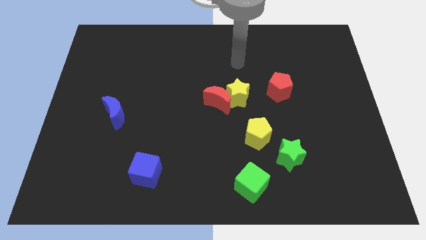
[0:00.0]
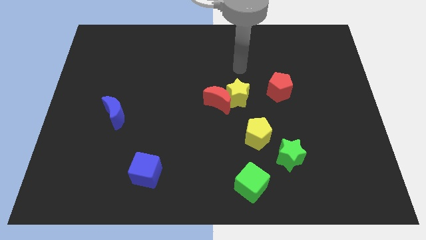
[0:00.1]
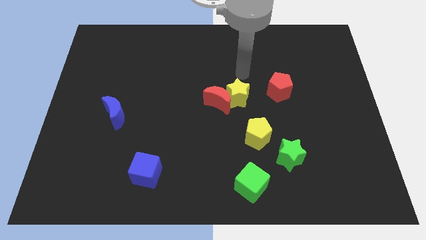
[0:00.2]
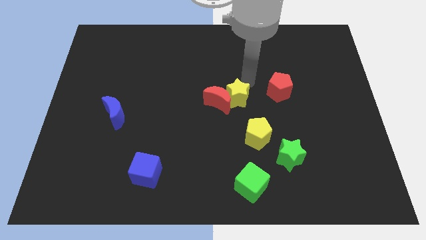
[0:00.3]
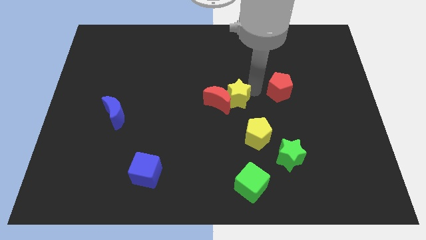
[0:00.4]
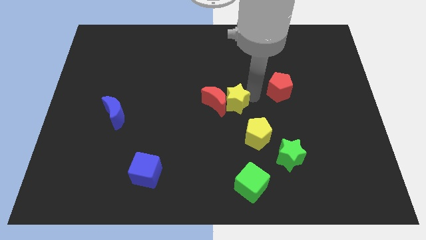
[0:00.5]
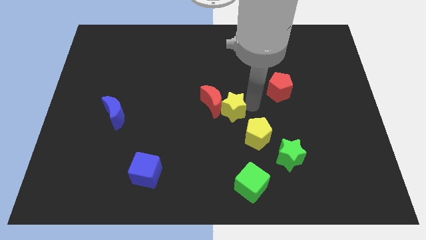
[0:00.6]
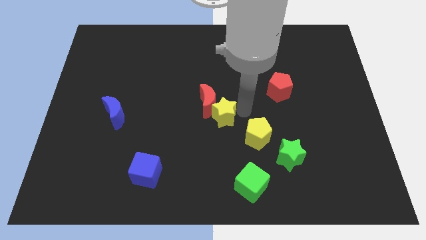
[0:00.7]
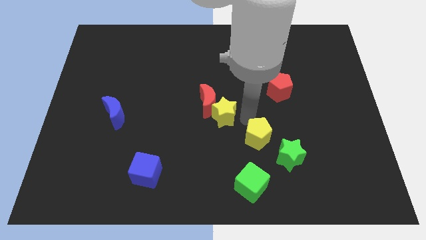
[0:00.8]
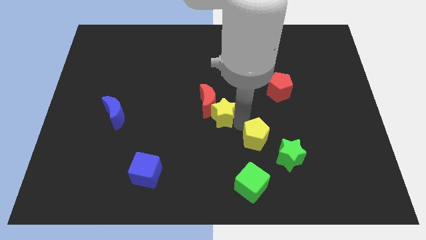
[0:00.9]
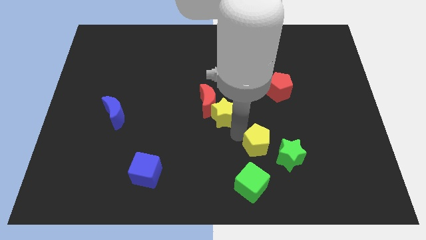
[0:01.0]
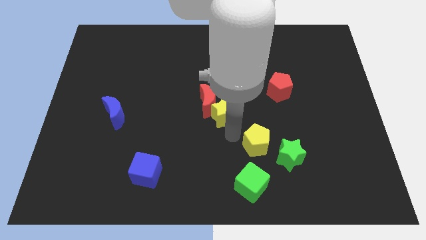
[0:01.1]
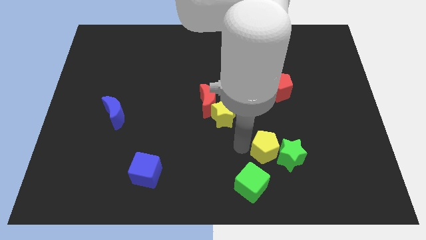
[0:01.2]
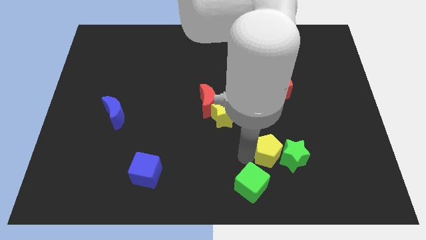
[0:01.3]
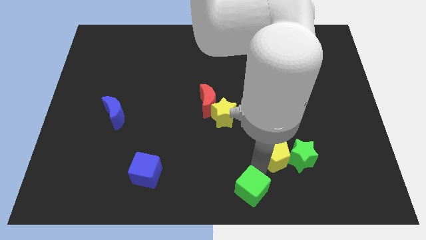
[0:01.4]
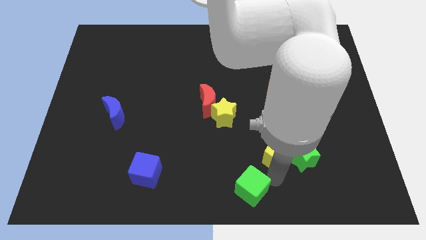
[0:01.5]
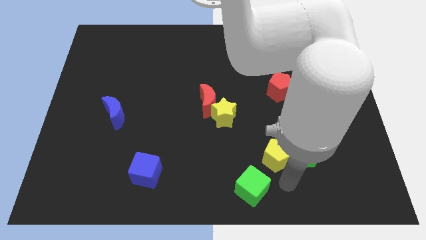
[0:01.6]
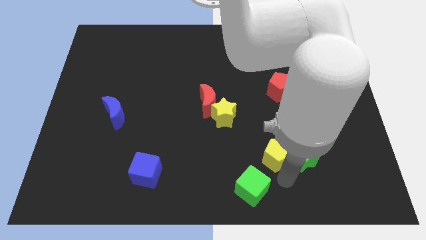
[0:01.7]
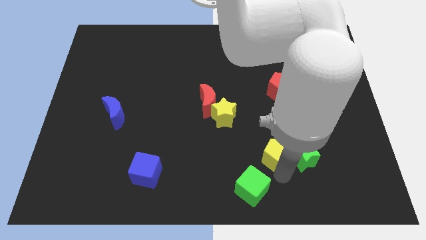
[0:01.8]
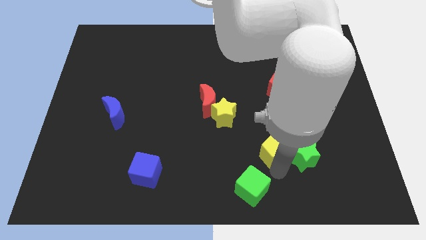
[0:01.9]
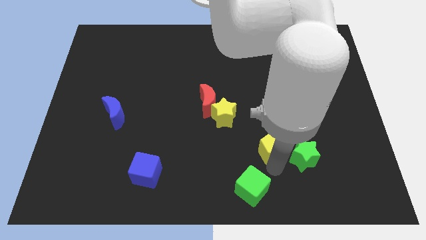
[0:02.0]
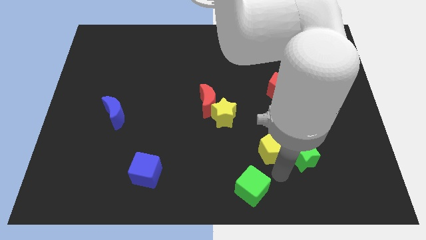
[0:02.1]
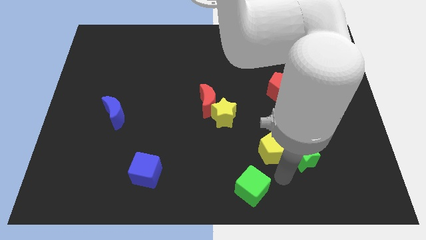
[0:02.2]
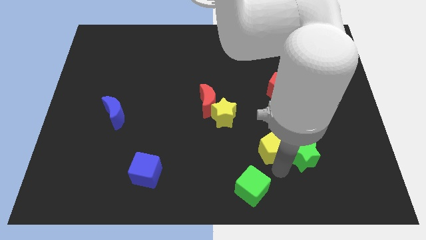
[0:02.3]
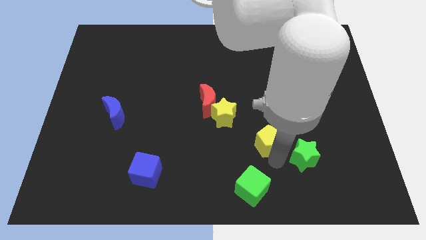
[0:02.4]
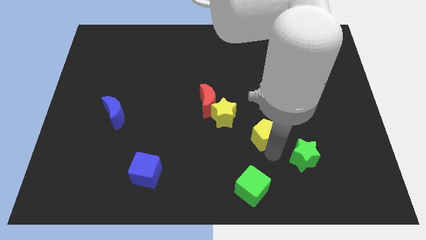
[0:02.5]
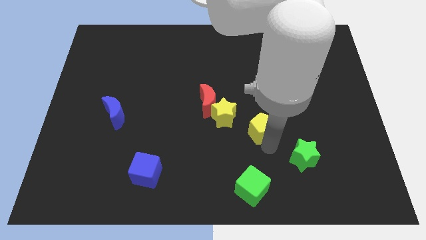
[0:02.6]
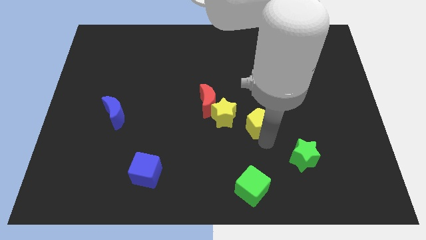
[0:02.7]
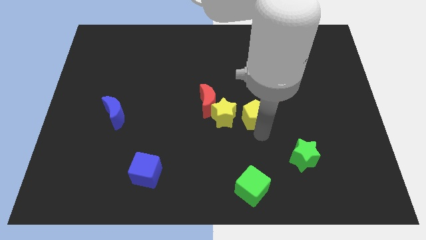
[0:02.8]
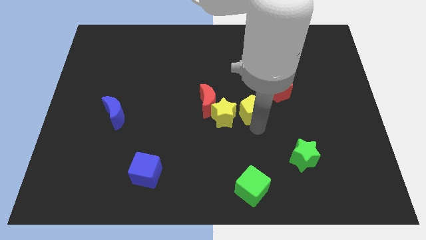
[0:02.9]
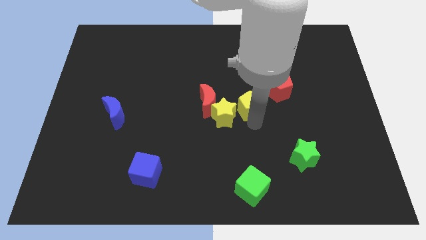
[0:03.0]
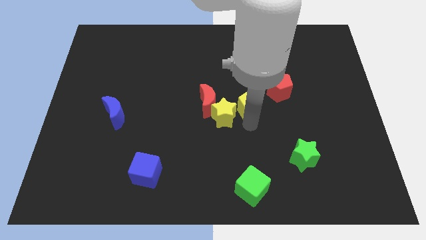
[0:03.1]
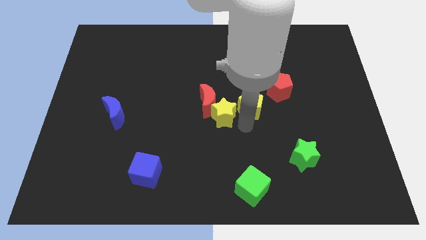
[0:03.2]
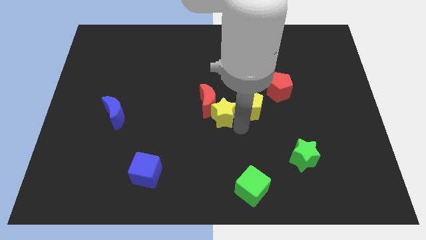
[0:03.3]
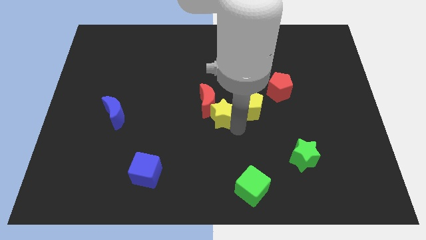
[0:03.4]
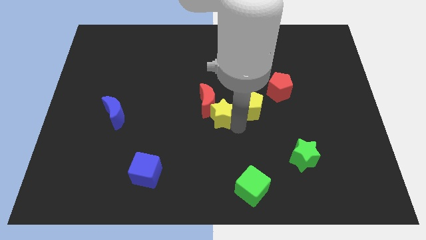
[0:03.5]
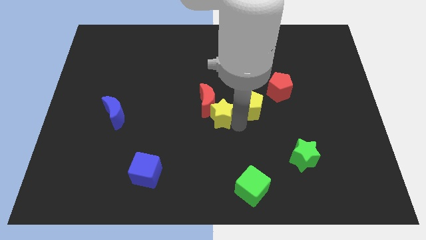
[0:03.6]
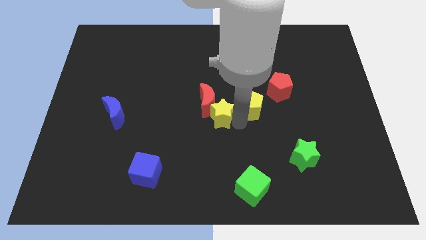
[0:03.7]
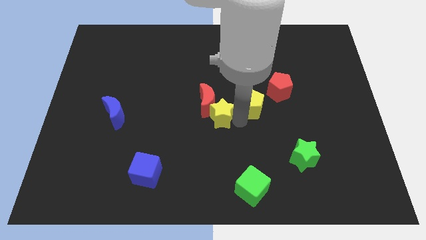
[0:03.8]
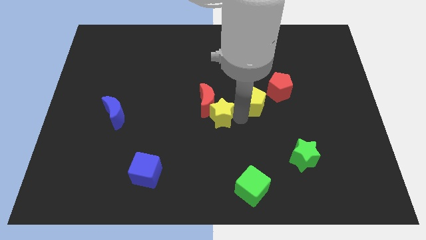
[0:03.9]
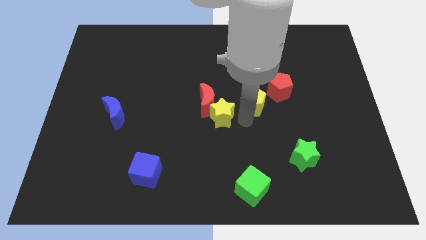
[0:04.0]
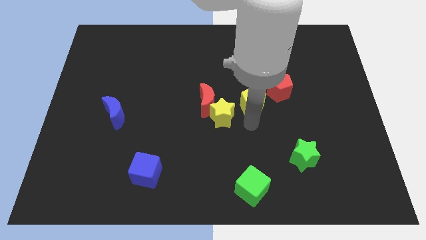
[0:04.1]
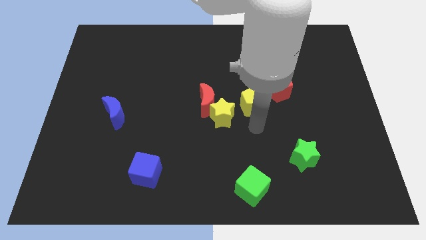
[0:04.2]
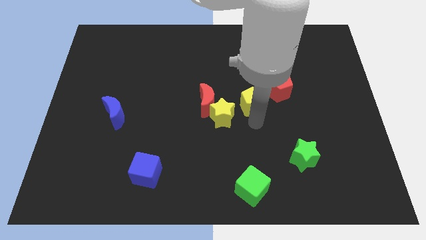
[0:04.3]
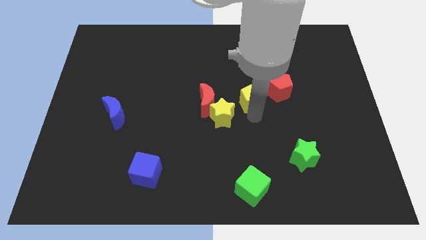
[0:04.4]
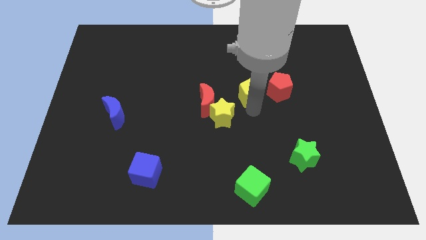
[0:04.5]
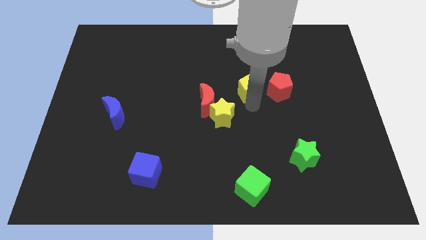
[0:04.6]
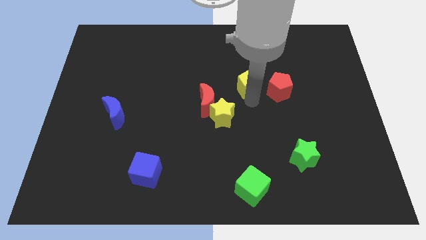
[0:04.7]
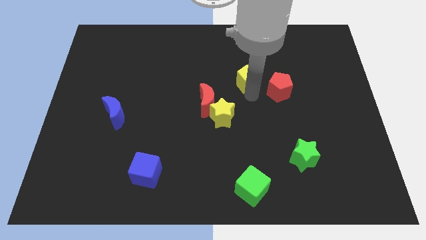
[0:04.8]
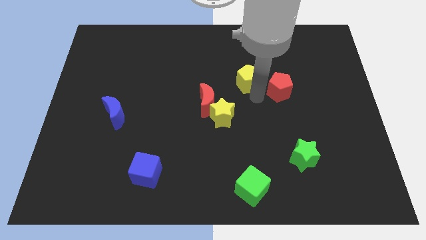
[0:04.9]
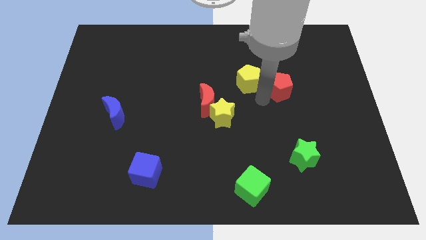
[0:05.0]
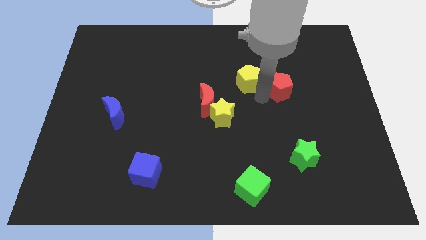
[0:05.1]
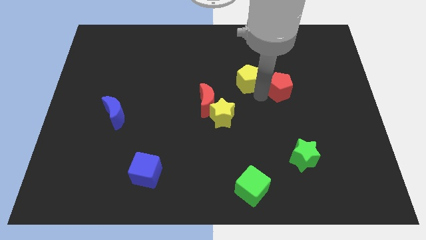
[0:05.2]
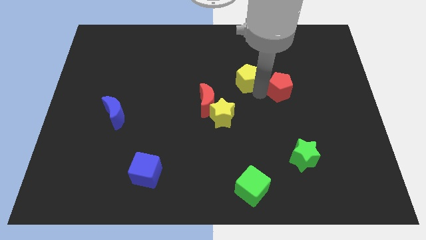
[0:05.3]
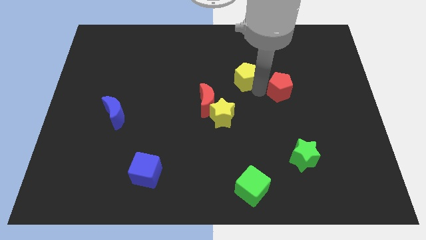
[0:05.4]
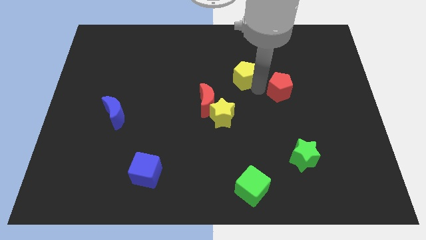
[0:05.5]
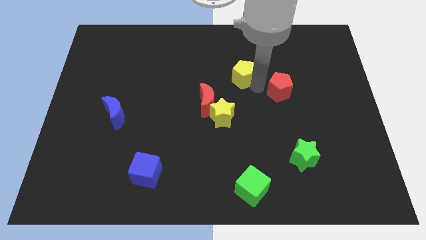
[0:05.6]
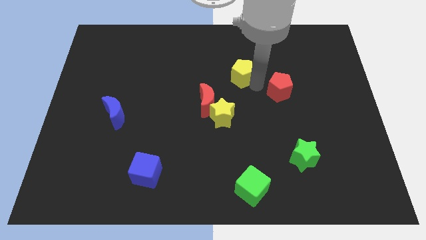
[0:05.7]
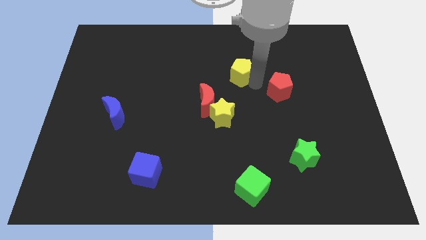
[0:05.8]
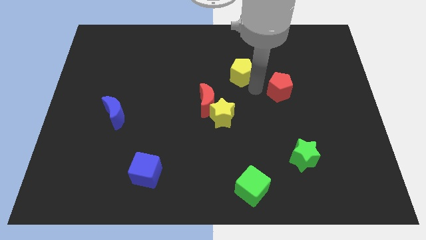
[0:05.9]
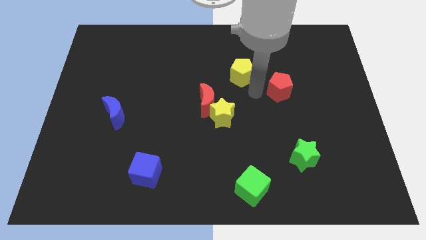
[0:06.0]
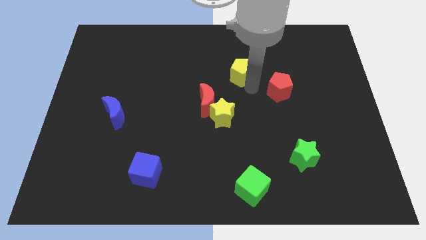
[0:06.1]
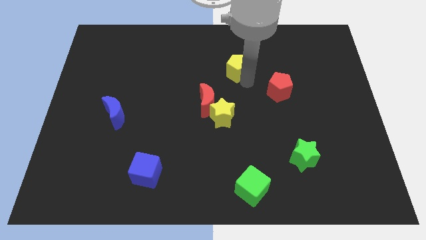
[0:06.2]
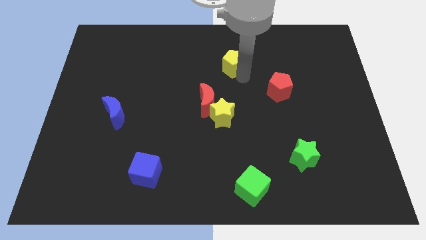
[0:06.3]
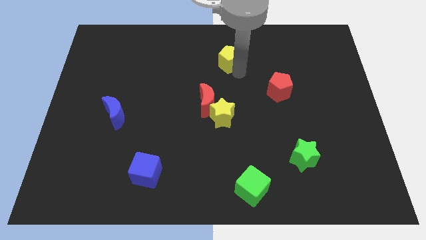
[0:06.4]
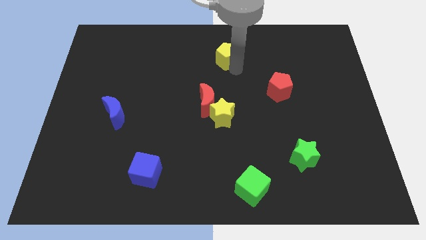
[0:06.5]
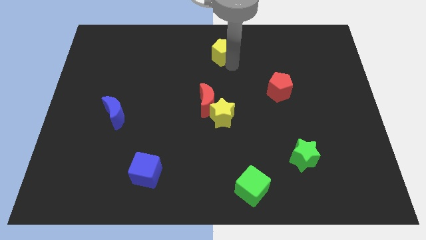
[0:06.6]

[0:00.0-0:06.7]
move the yellow pentagon to the top side
